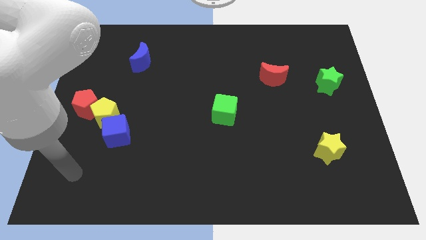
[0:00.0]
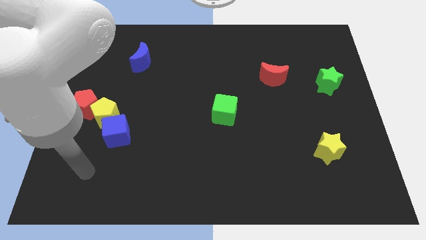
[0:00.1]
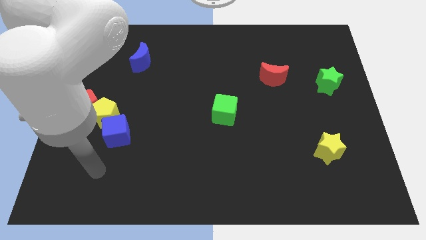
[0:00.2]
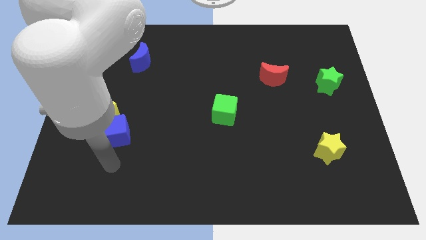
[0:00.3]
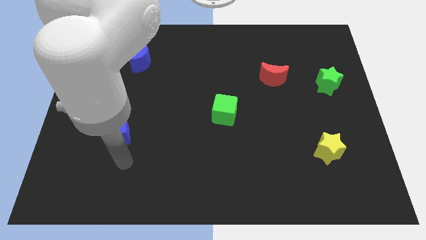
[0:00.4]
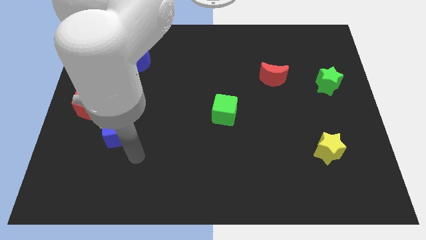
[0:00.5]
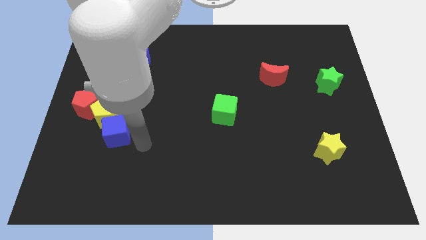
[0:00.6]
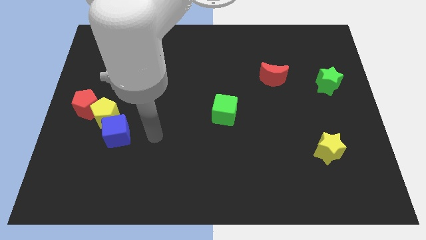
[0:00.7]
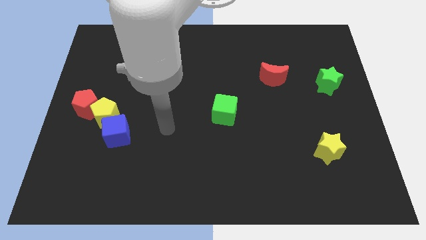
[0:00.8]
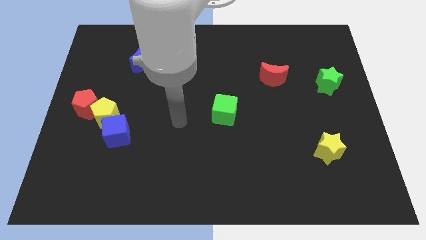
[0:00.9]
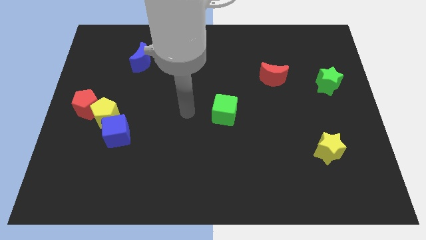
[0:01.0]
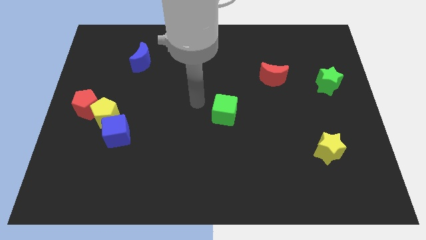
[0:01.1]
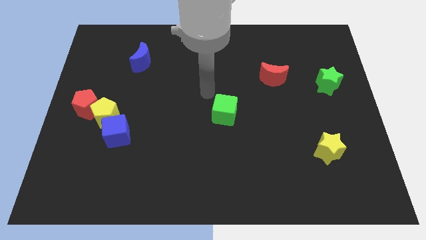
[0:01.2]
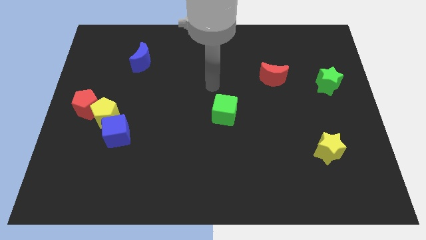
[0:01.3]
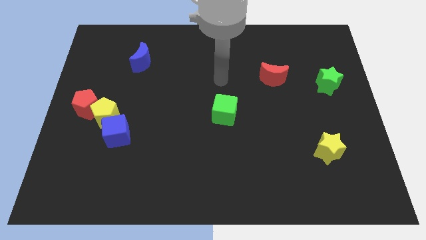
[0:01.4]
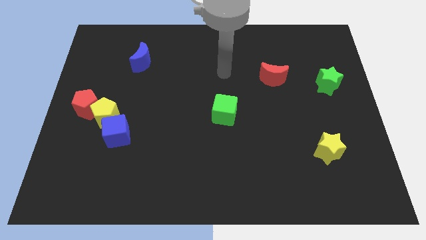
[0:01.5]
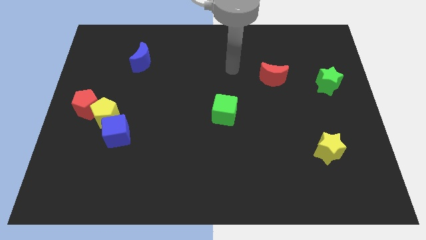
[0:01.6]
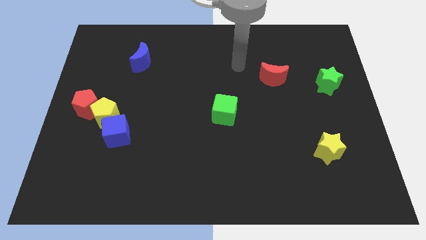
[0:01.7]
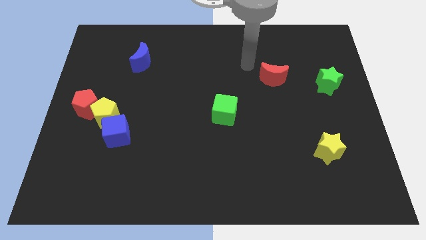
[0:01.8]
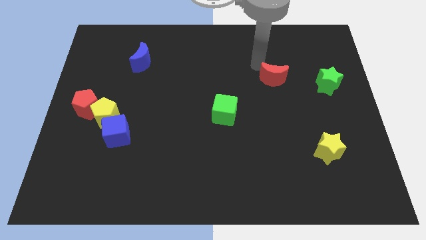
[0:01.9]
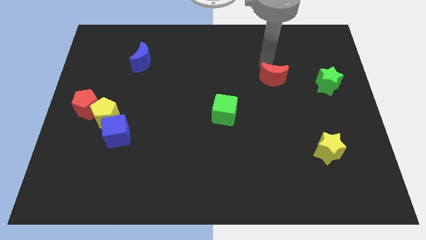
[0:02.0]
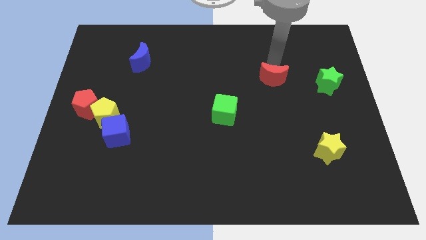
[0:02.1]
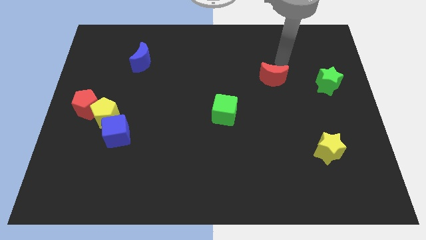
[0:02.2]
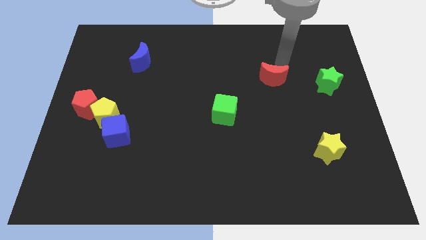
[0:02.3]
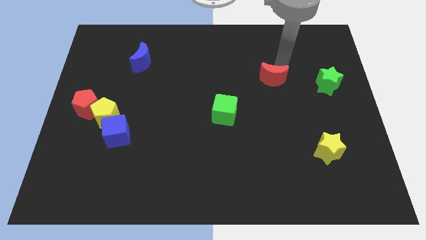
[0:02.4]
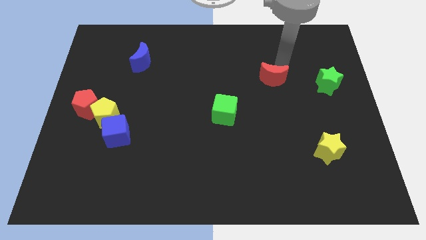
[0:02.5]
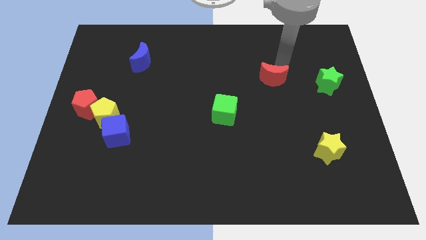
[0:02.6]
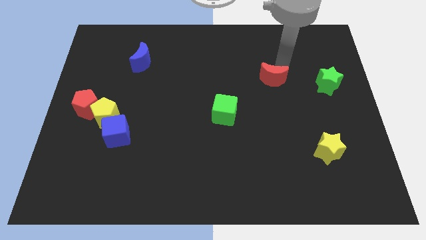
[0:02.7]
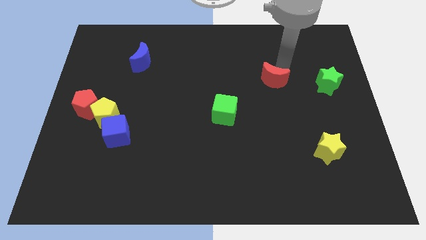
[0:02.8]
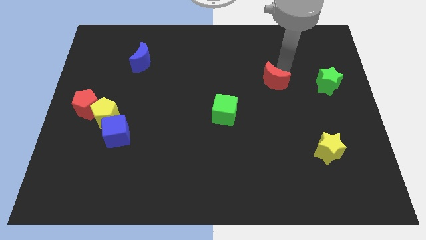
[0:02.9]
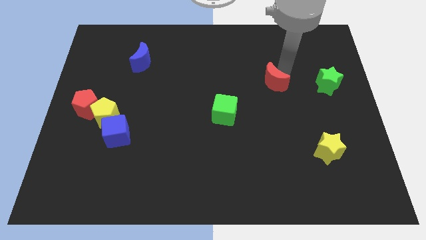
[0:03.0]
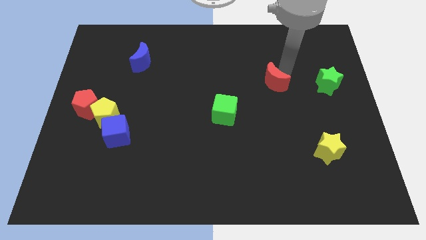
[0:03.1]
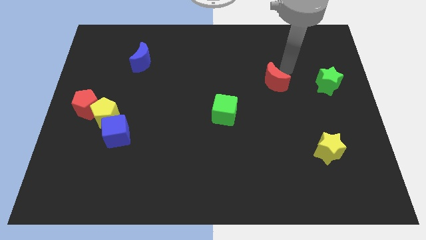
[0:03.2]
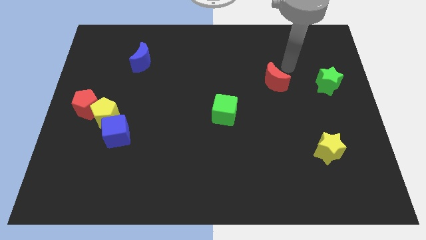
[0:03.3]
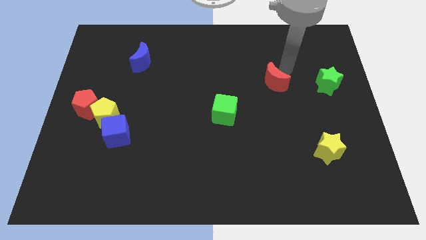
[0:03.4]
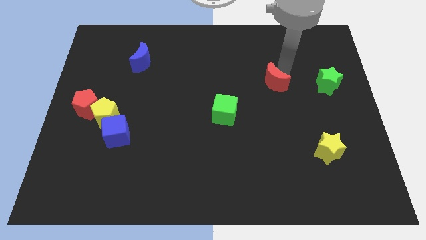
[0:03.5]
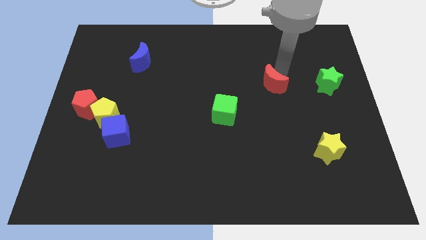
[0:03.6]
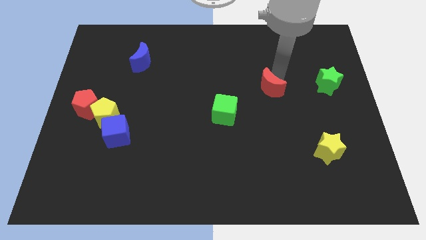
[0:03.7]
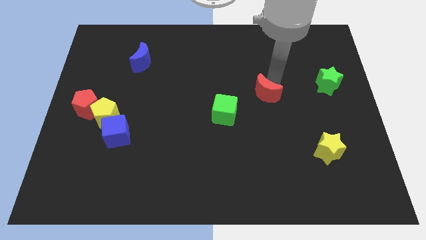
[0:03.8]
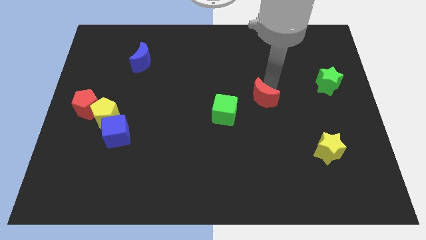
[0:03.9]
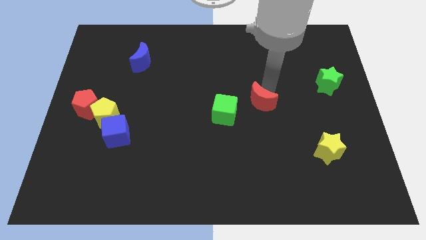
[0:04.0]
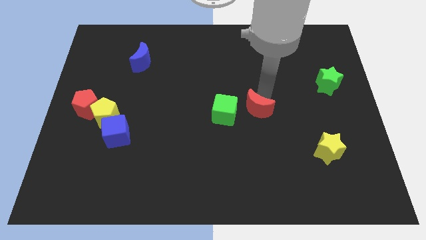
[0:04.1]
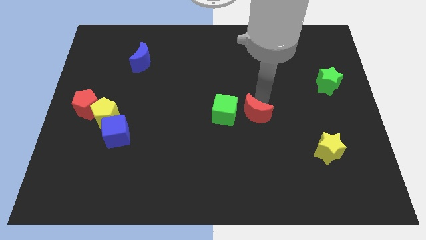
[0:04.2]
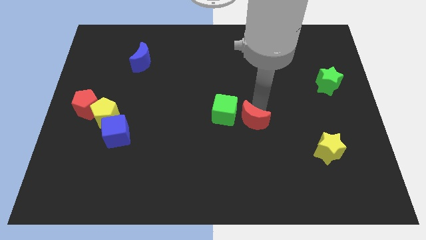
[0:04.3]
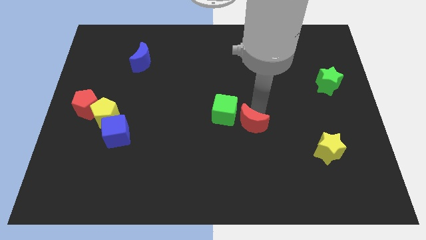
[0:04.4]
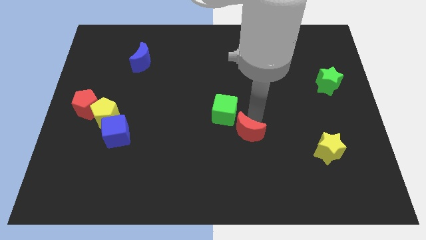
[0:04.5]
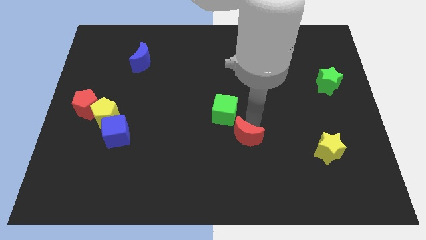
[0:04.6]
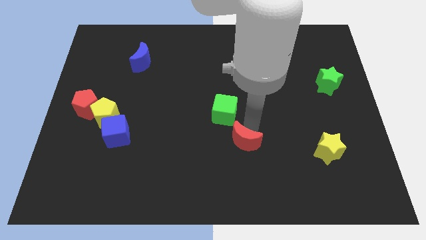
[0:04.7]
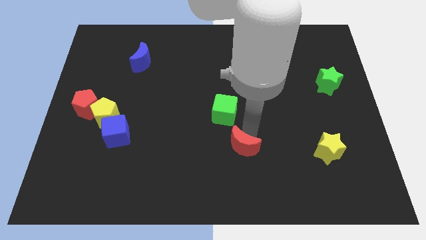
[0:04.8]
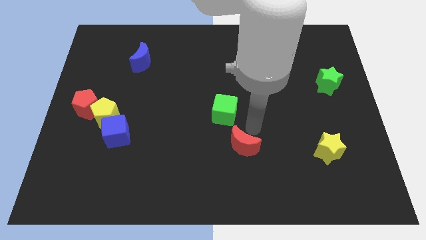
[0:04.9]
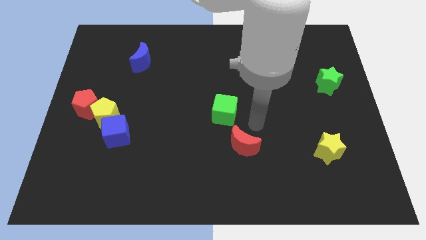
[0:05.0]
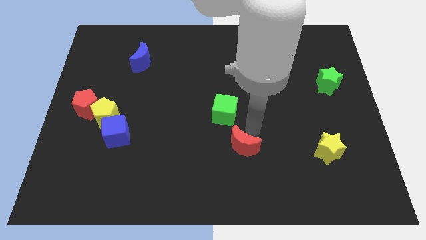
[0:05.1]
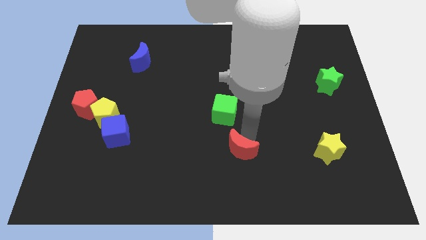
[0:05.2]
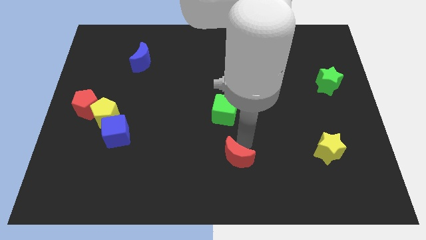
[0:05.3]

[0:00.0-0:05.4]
move the red moon to the bottom side

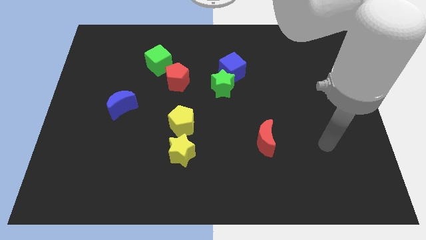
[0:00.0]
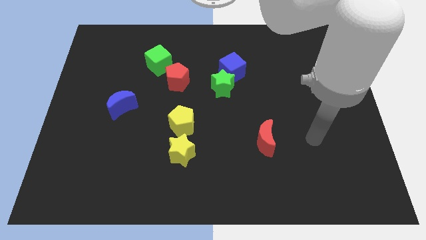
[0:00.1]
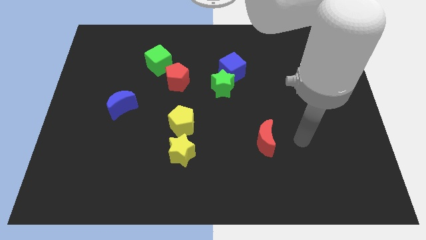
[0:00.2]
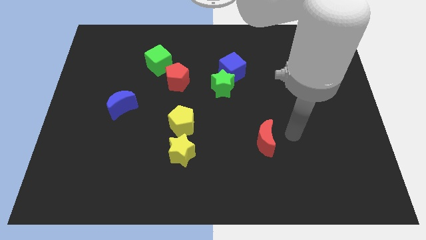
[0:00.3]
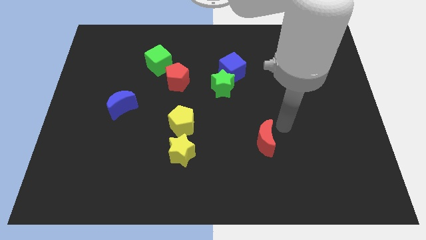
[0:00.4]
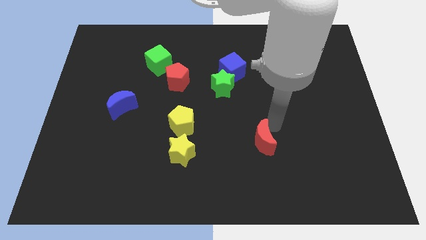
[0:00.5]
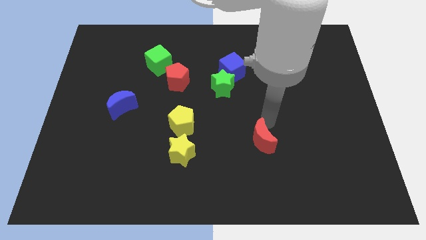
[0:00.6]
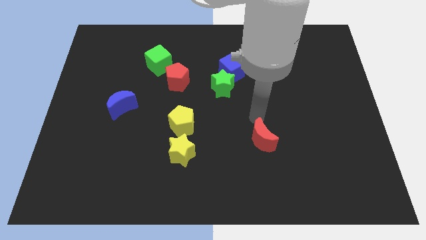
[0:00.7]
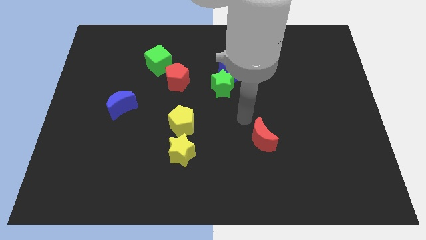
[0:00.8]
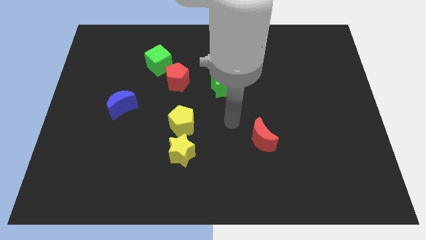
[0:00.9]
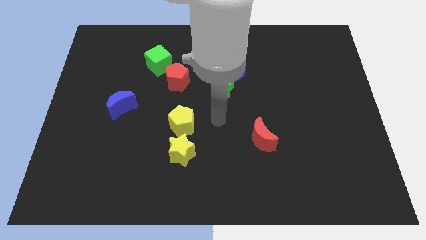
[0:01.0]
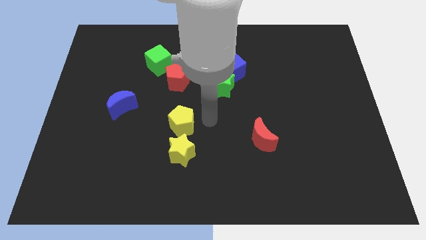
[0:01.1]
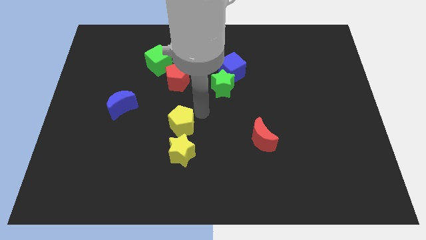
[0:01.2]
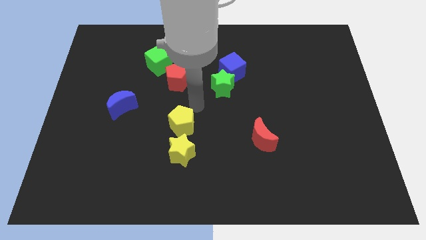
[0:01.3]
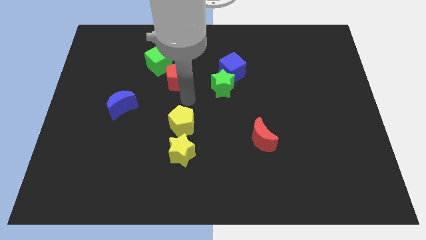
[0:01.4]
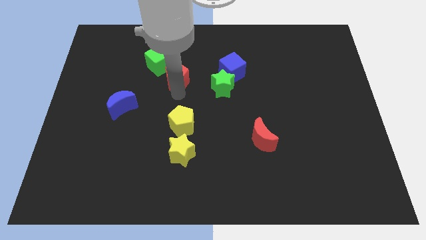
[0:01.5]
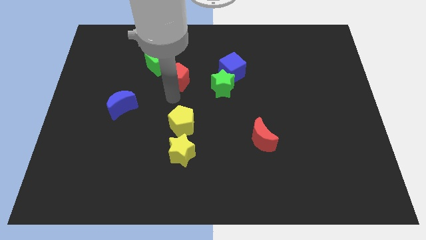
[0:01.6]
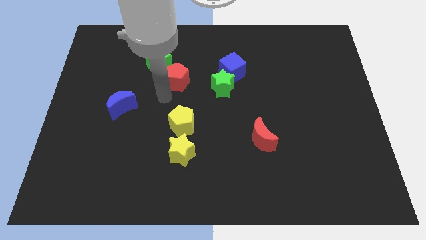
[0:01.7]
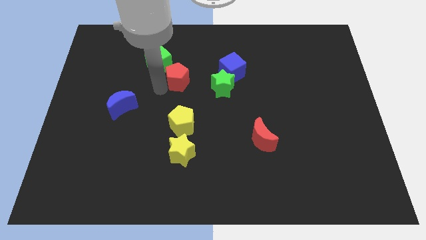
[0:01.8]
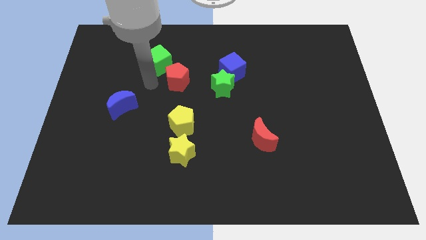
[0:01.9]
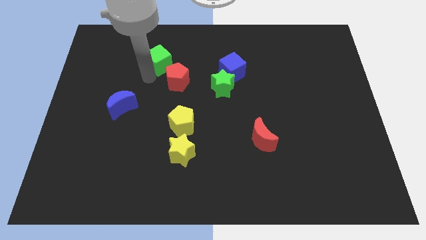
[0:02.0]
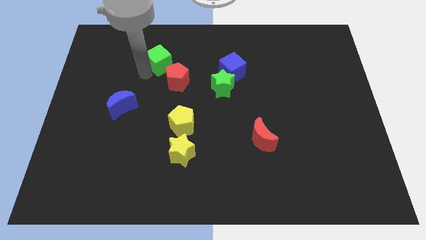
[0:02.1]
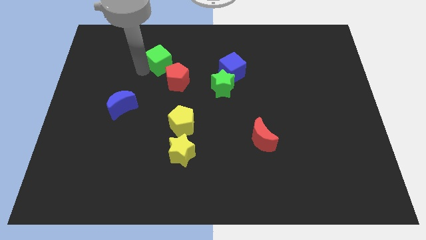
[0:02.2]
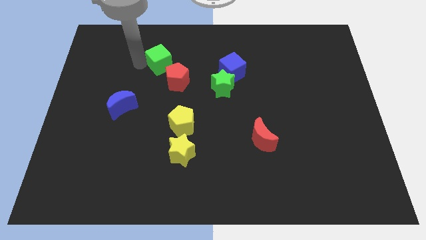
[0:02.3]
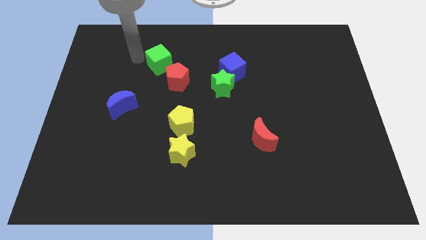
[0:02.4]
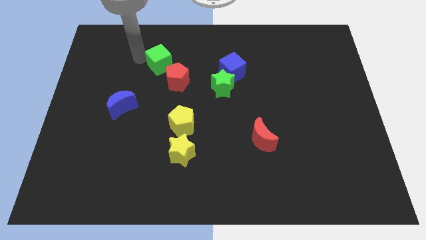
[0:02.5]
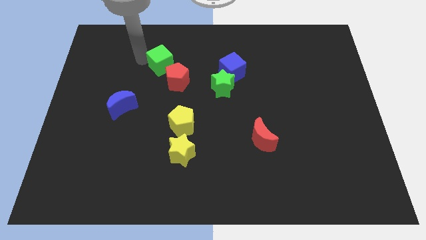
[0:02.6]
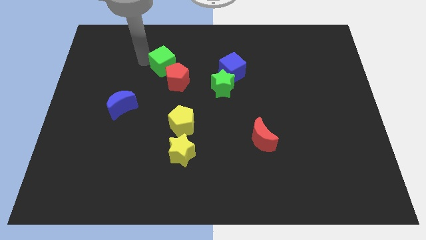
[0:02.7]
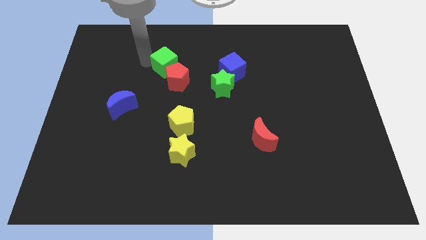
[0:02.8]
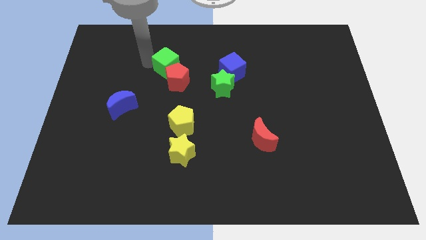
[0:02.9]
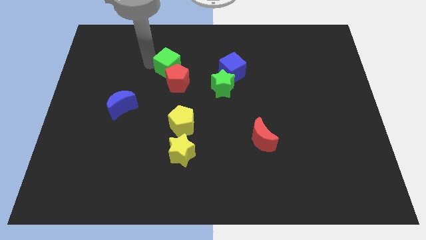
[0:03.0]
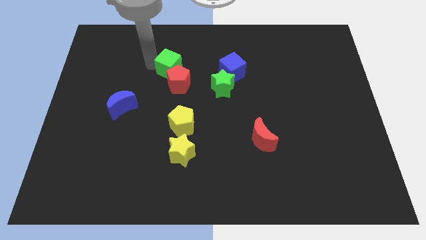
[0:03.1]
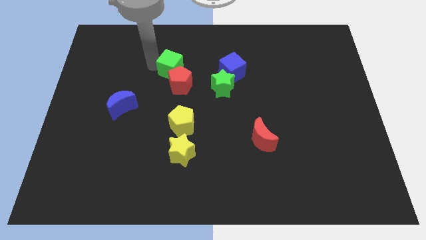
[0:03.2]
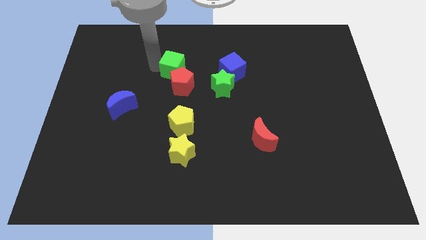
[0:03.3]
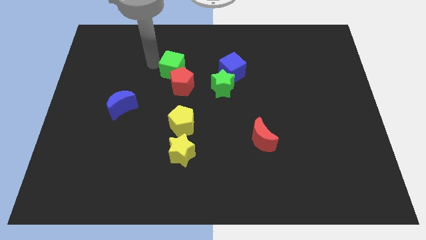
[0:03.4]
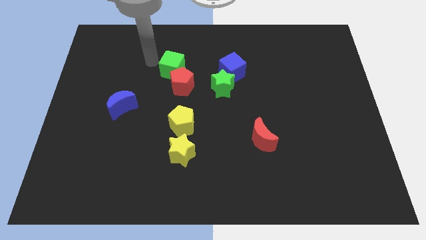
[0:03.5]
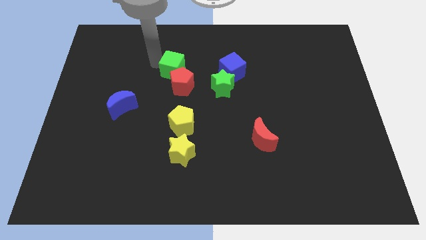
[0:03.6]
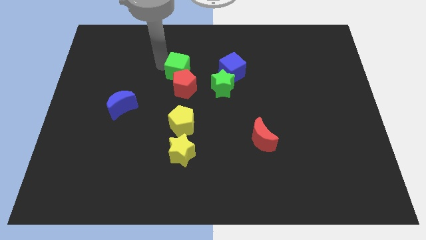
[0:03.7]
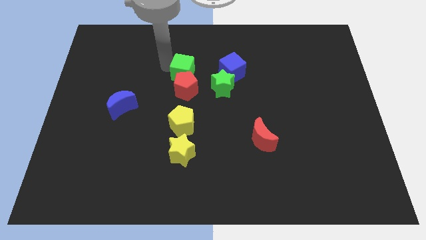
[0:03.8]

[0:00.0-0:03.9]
push the green cube to the center
